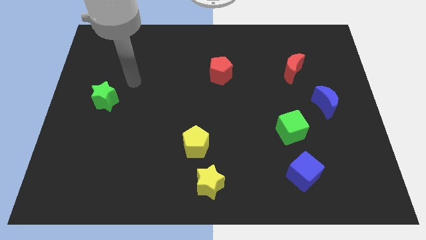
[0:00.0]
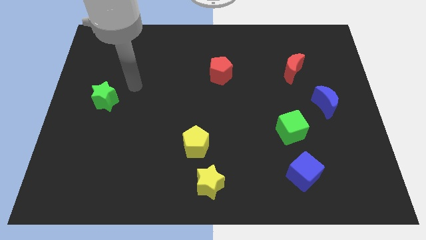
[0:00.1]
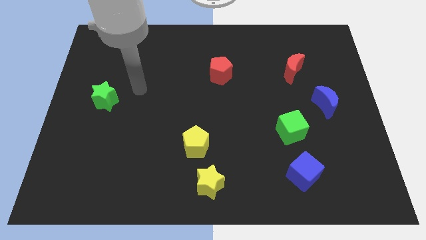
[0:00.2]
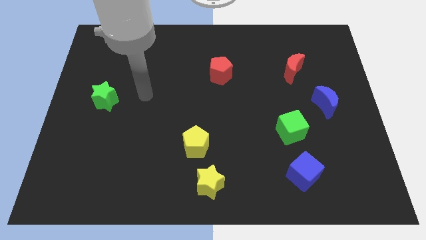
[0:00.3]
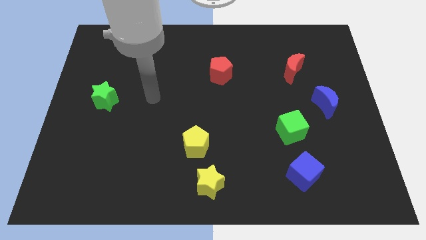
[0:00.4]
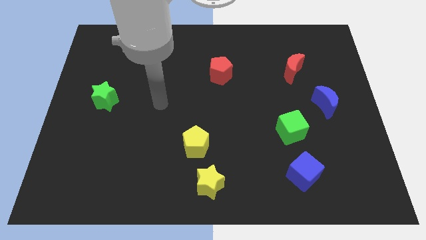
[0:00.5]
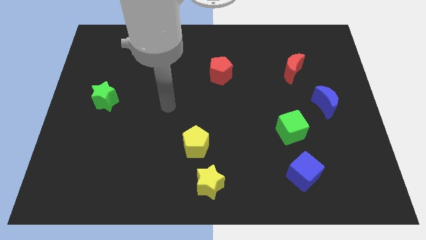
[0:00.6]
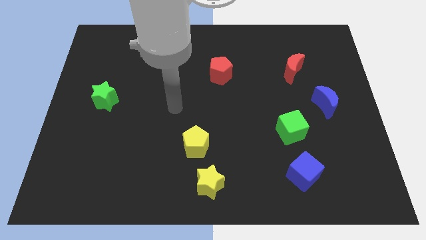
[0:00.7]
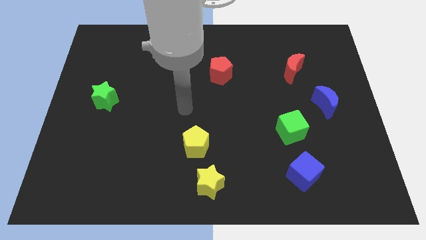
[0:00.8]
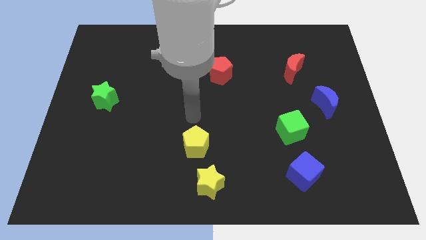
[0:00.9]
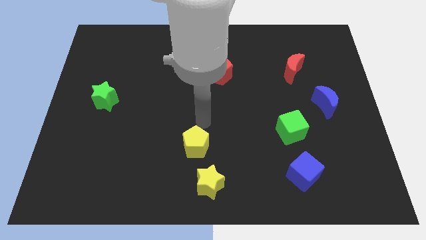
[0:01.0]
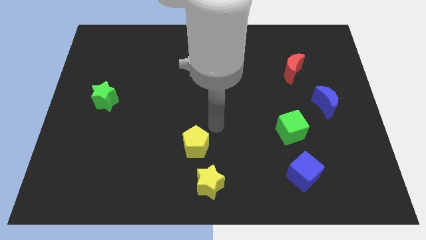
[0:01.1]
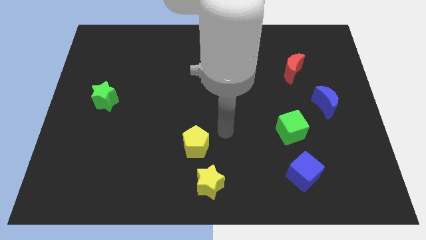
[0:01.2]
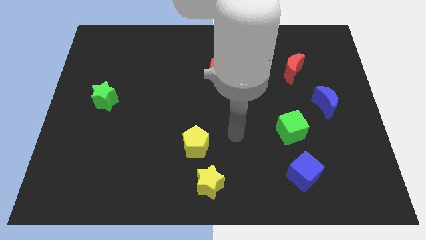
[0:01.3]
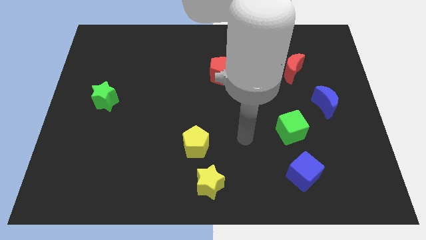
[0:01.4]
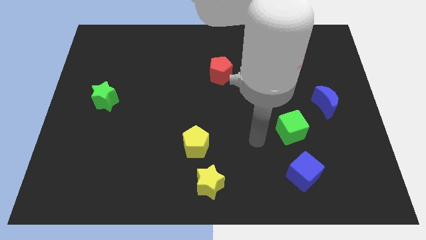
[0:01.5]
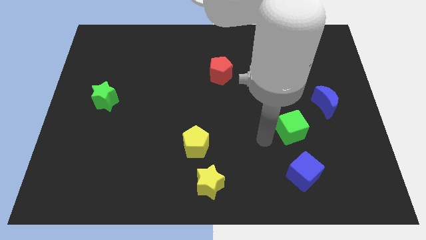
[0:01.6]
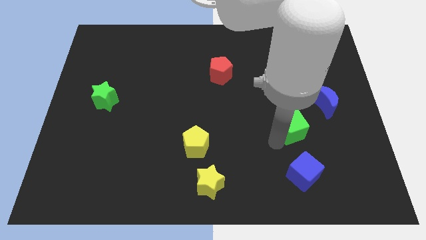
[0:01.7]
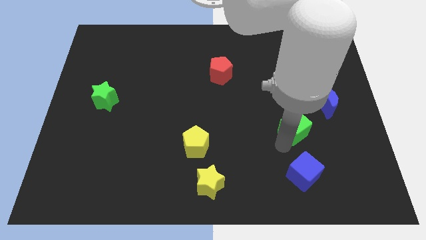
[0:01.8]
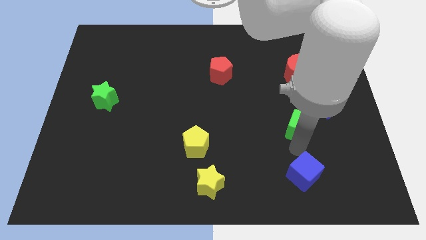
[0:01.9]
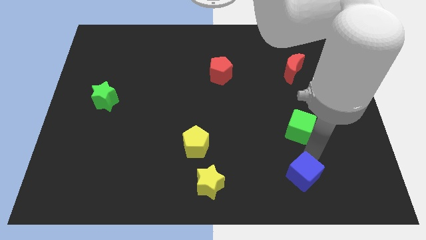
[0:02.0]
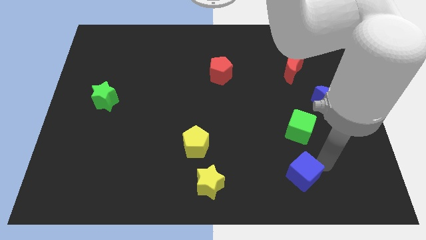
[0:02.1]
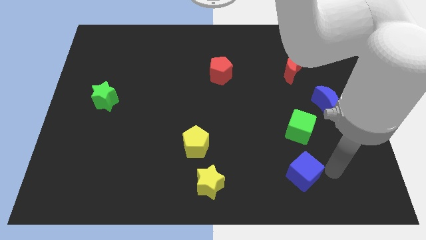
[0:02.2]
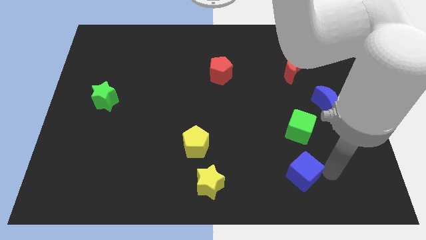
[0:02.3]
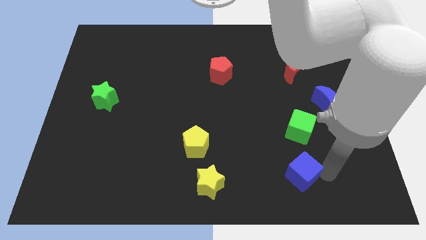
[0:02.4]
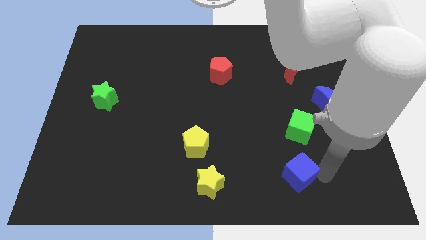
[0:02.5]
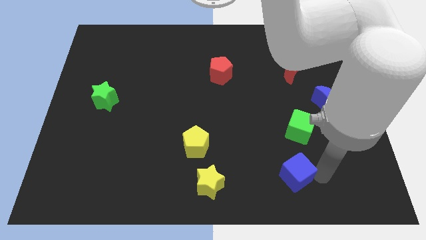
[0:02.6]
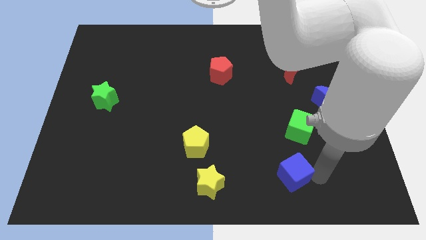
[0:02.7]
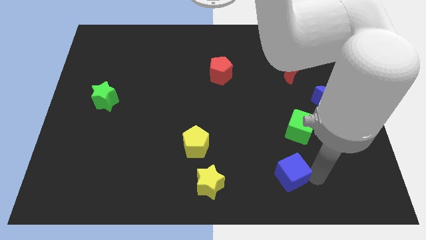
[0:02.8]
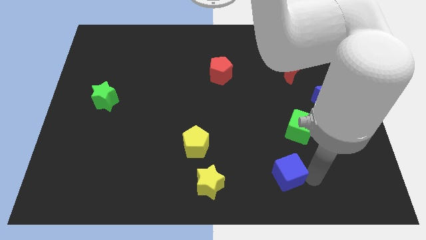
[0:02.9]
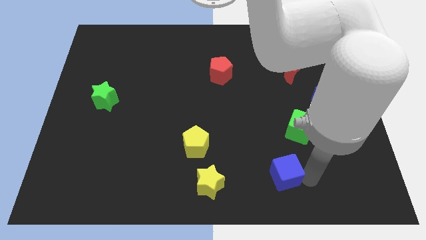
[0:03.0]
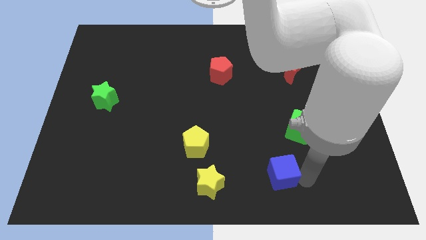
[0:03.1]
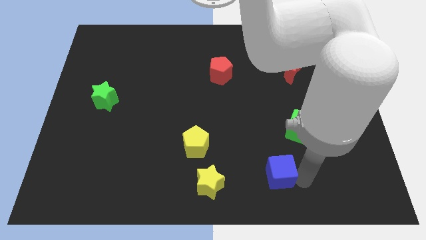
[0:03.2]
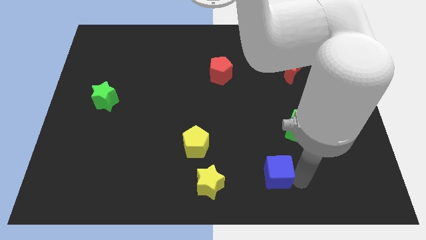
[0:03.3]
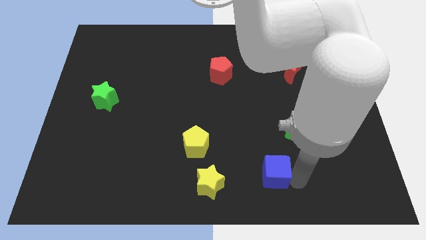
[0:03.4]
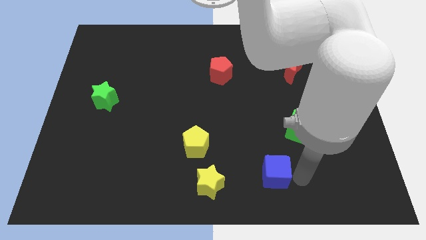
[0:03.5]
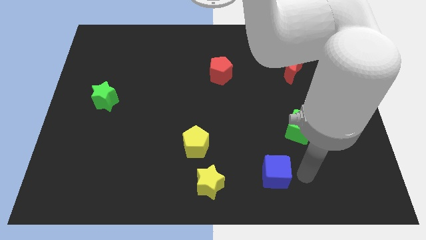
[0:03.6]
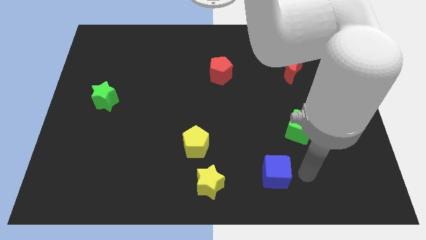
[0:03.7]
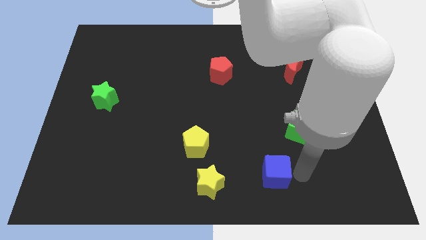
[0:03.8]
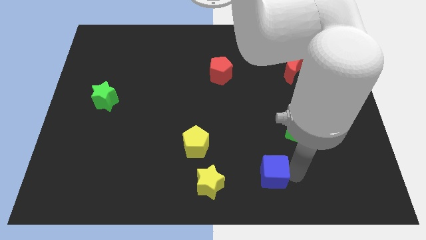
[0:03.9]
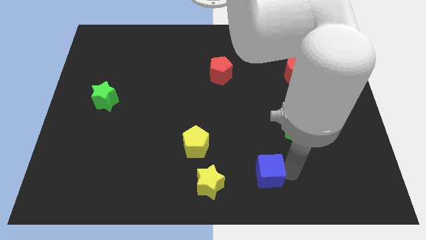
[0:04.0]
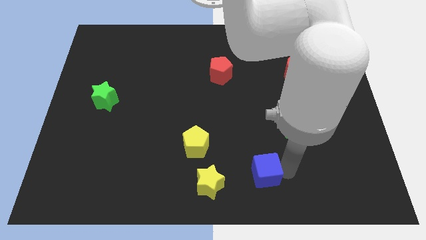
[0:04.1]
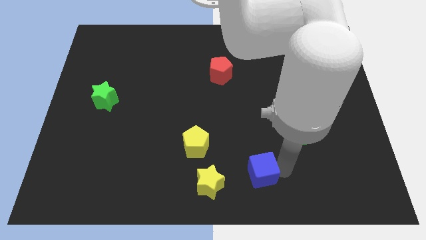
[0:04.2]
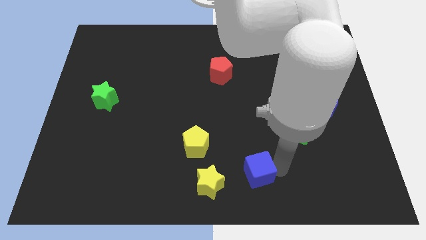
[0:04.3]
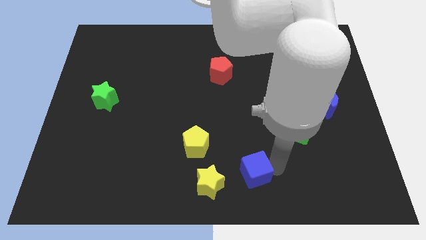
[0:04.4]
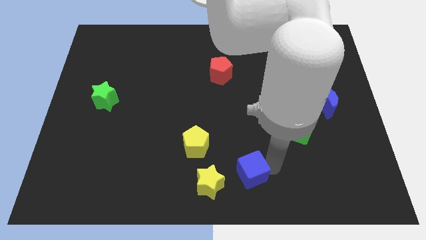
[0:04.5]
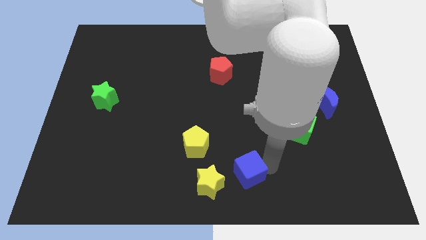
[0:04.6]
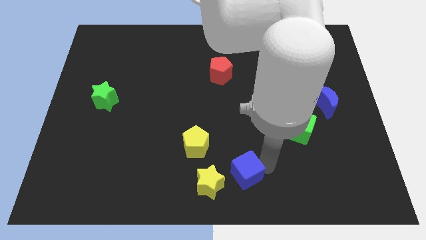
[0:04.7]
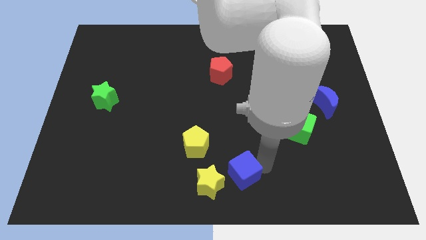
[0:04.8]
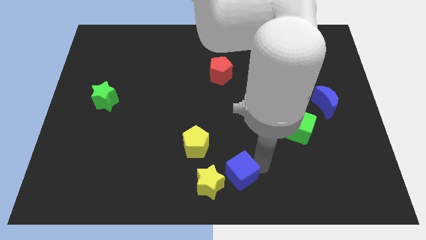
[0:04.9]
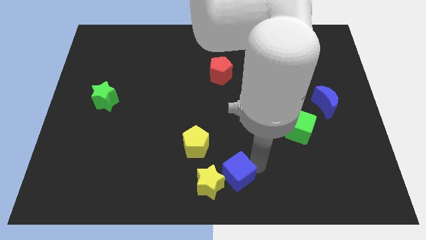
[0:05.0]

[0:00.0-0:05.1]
put the blue cube next to the yellow star

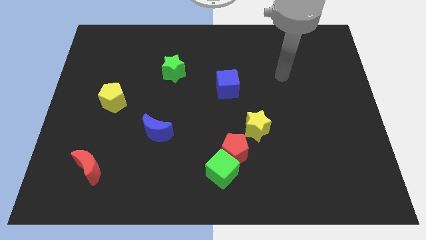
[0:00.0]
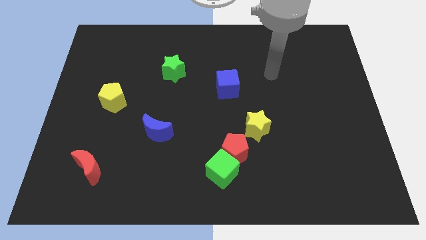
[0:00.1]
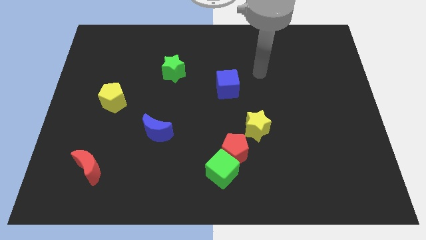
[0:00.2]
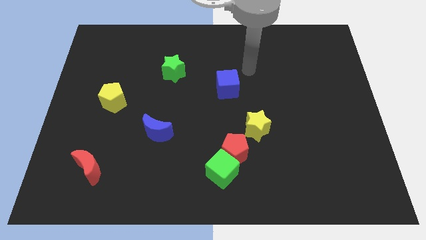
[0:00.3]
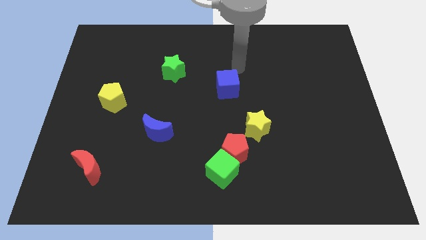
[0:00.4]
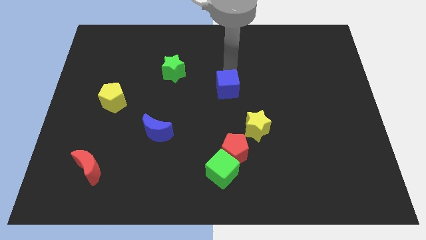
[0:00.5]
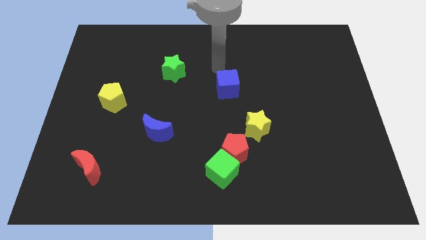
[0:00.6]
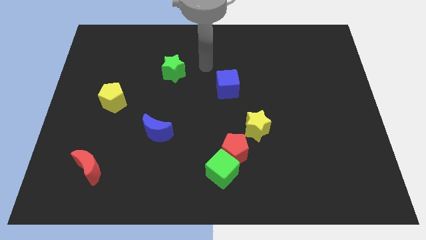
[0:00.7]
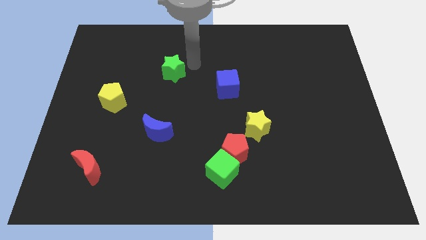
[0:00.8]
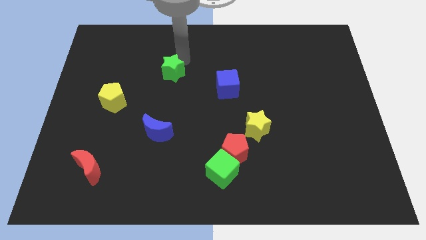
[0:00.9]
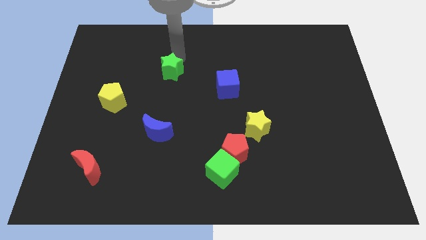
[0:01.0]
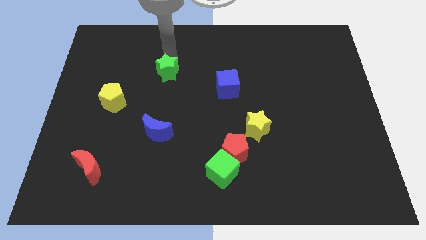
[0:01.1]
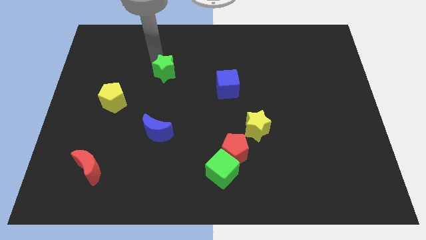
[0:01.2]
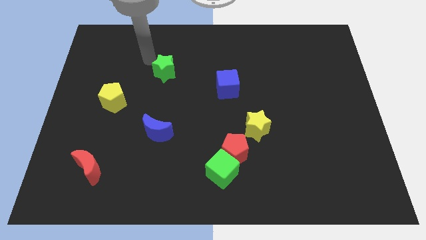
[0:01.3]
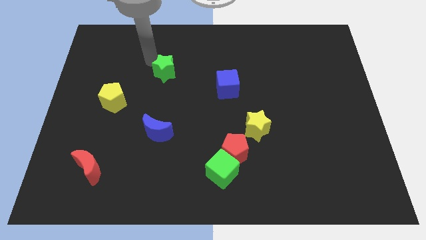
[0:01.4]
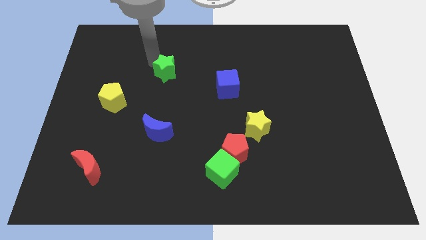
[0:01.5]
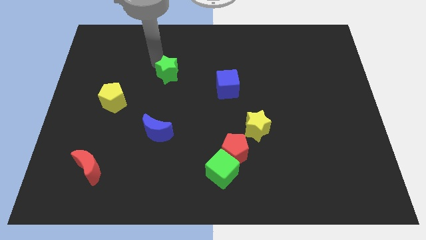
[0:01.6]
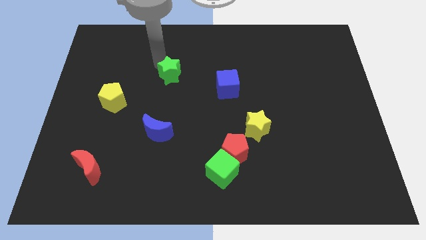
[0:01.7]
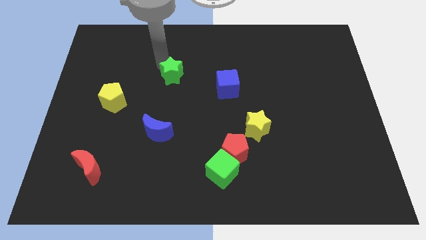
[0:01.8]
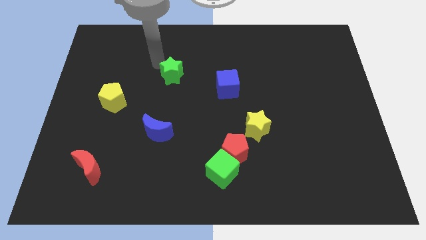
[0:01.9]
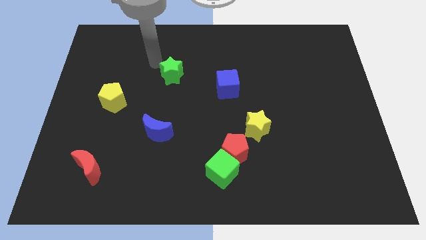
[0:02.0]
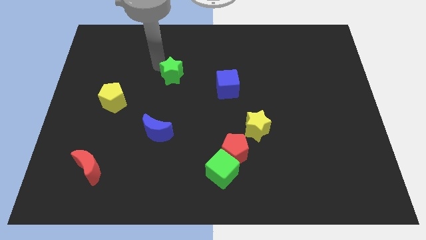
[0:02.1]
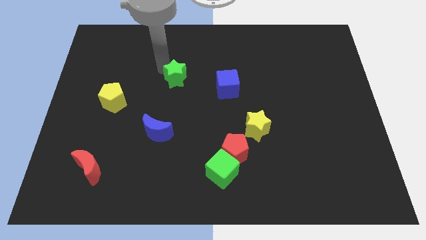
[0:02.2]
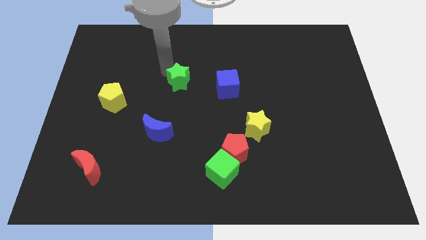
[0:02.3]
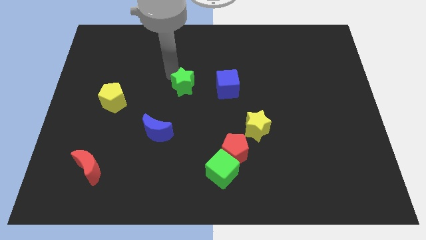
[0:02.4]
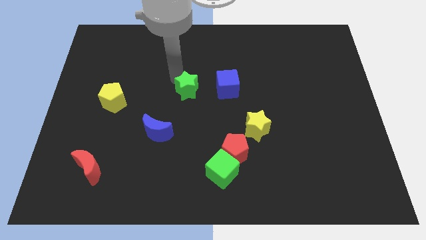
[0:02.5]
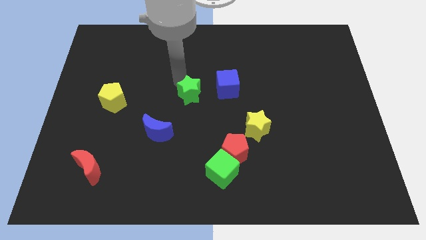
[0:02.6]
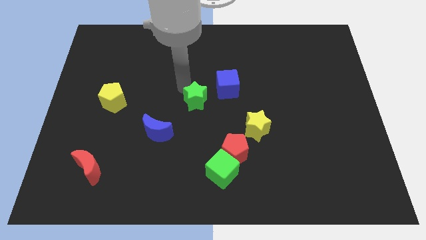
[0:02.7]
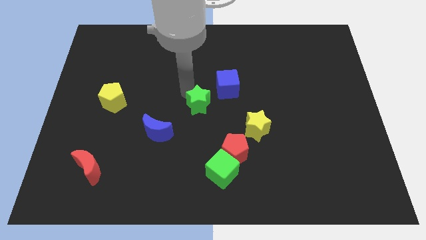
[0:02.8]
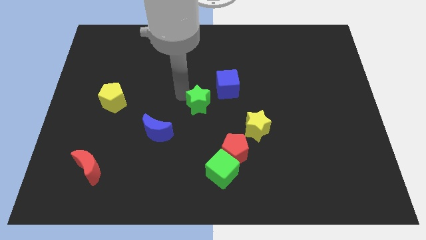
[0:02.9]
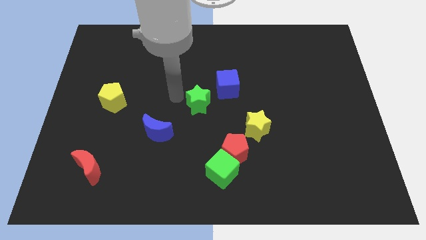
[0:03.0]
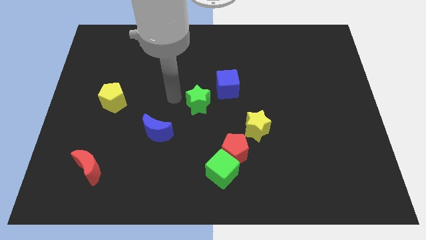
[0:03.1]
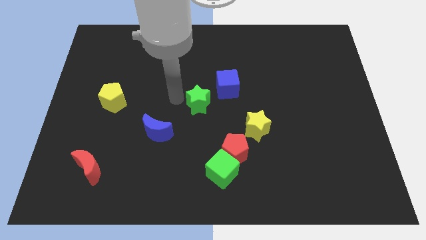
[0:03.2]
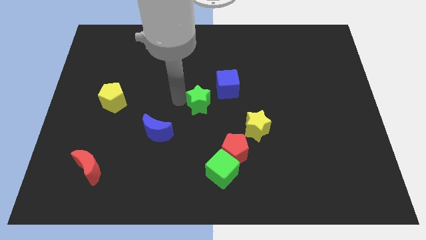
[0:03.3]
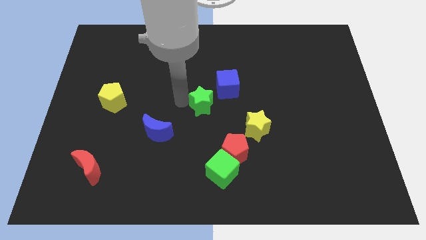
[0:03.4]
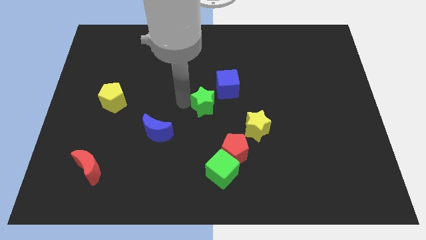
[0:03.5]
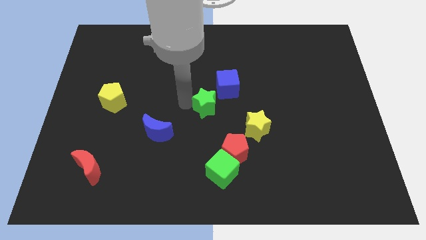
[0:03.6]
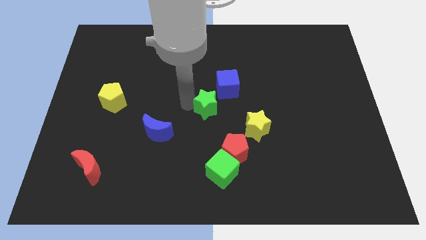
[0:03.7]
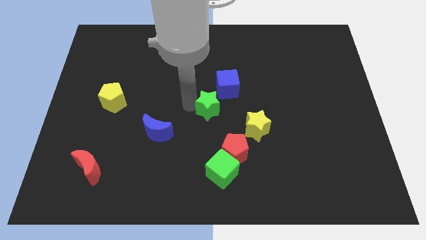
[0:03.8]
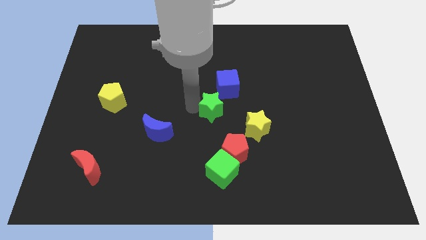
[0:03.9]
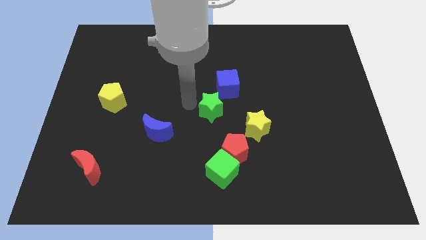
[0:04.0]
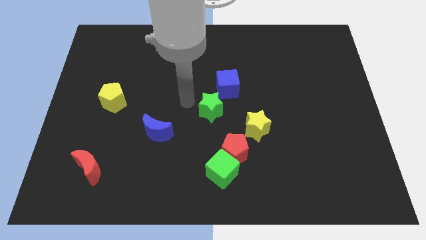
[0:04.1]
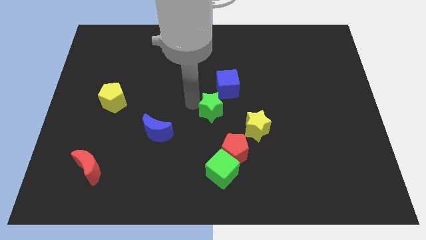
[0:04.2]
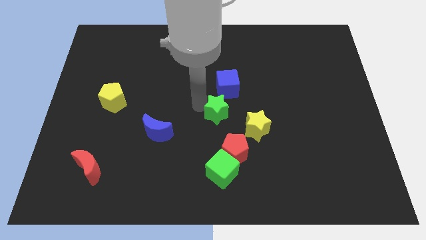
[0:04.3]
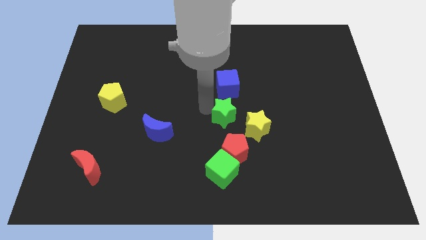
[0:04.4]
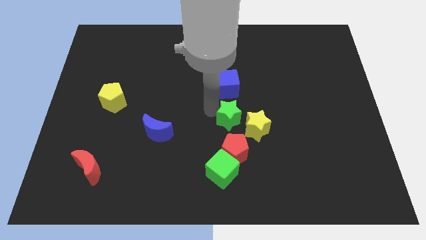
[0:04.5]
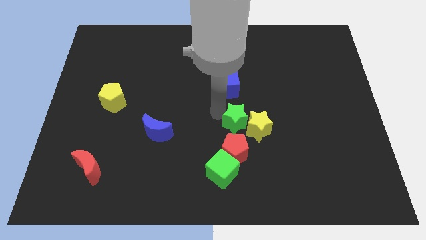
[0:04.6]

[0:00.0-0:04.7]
push the green star to the yellow star
